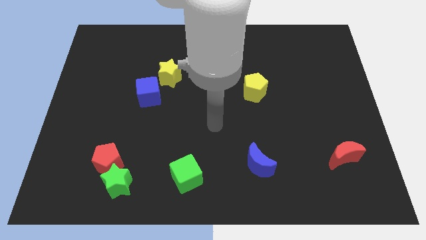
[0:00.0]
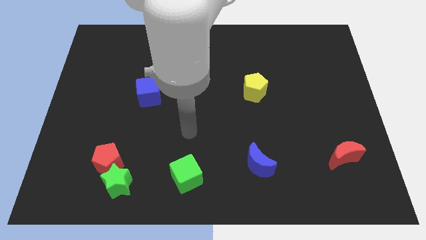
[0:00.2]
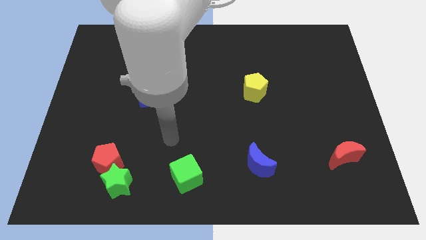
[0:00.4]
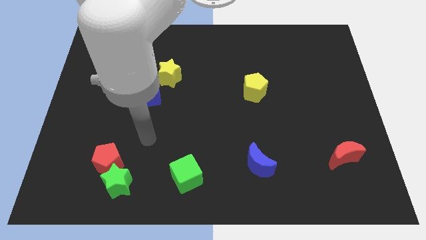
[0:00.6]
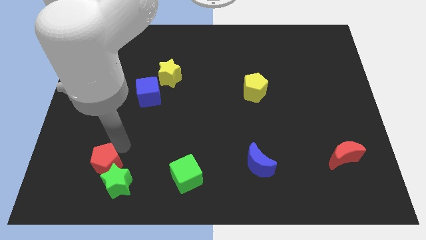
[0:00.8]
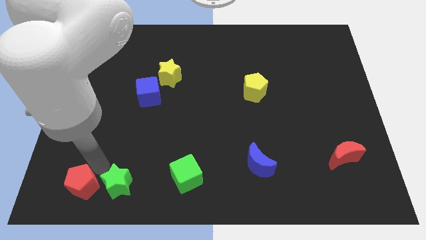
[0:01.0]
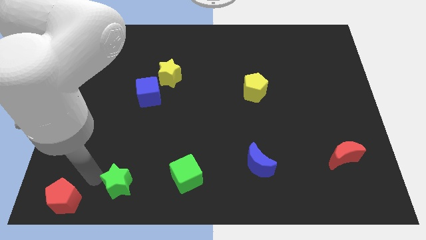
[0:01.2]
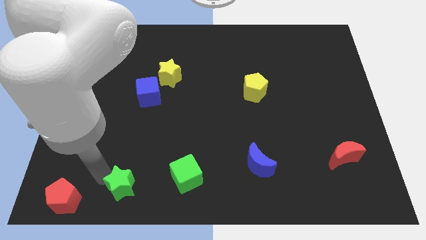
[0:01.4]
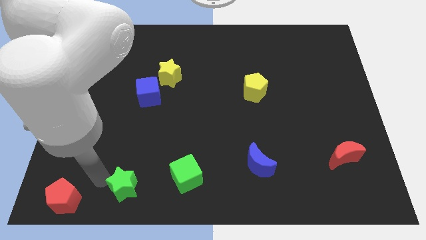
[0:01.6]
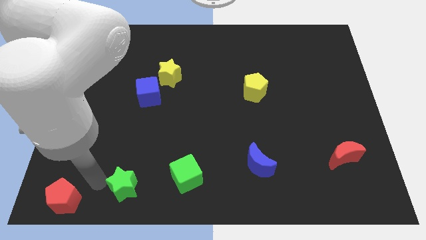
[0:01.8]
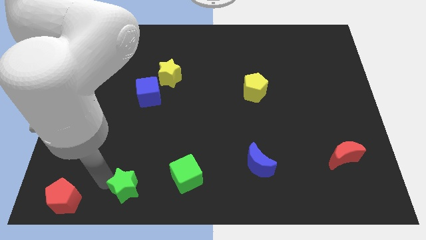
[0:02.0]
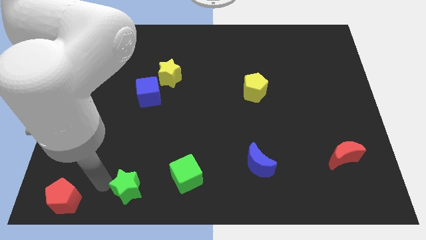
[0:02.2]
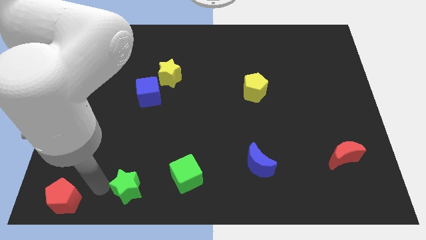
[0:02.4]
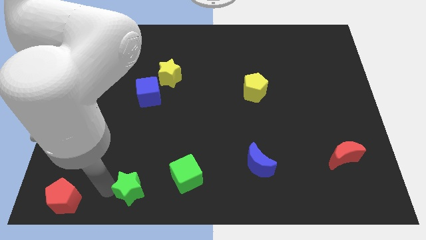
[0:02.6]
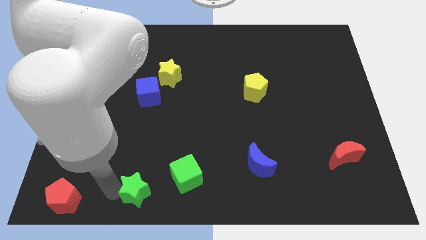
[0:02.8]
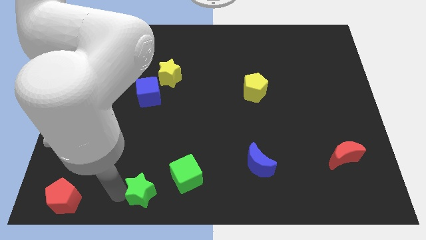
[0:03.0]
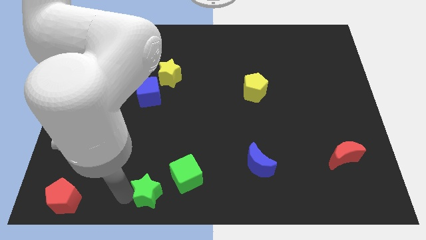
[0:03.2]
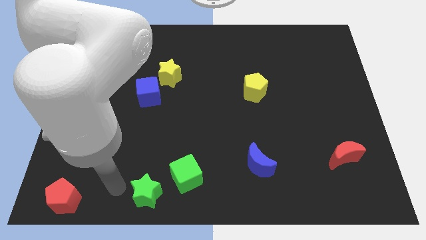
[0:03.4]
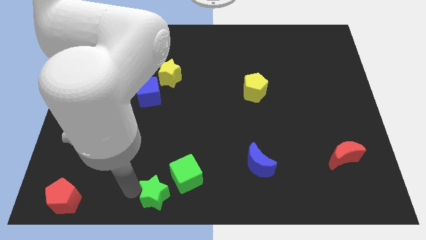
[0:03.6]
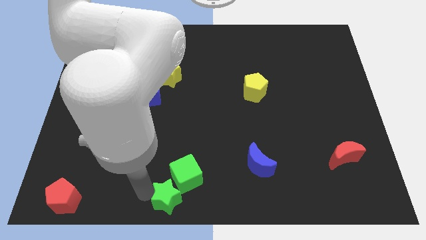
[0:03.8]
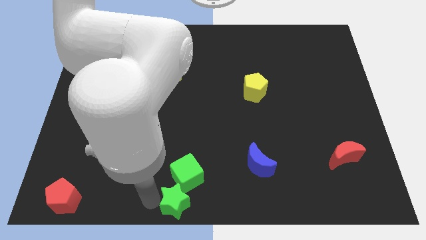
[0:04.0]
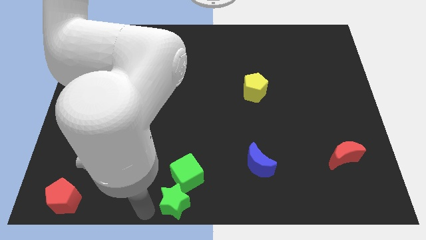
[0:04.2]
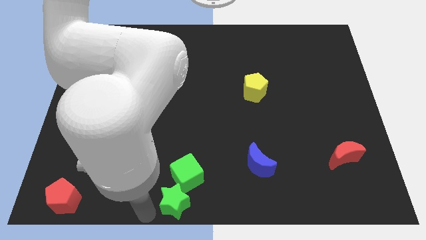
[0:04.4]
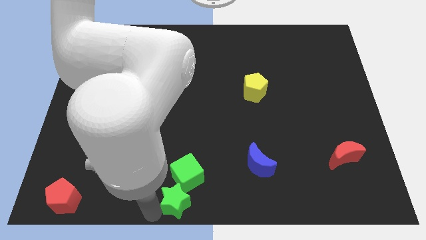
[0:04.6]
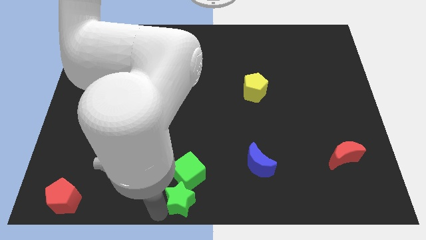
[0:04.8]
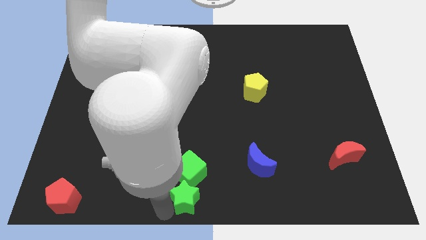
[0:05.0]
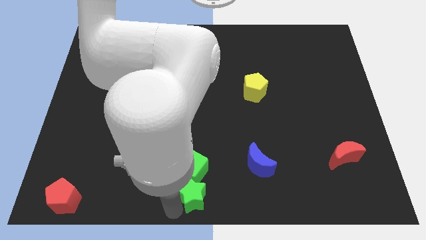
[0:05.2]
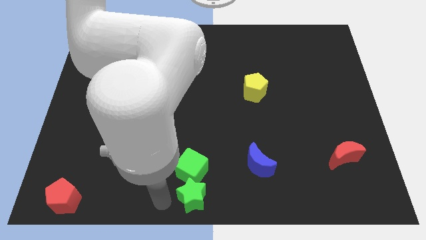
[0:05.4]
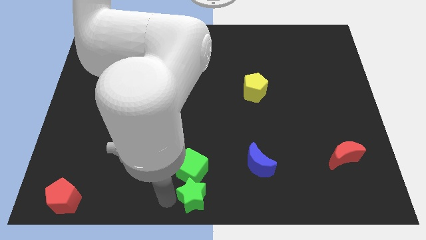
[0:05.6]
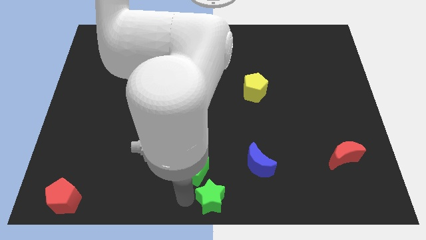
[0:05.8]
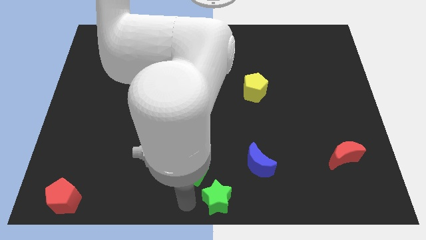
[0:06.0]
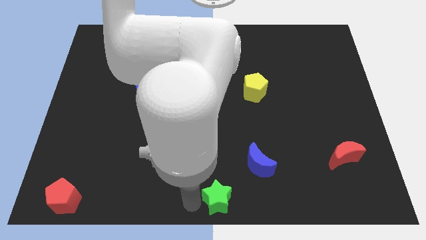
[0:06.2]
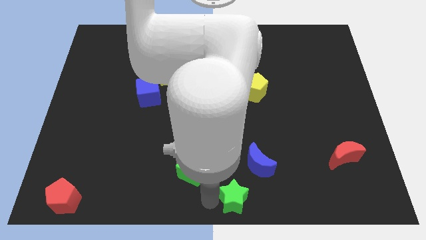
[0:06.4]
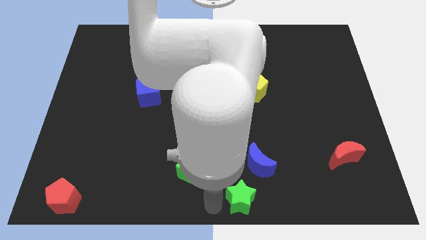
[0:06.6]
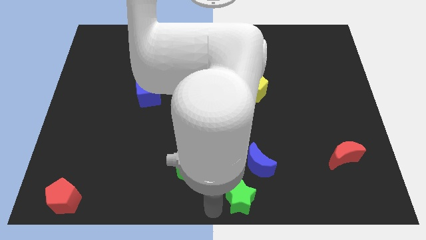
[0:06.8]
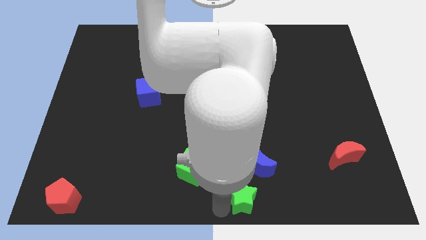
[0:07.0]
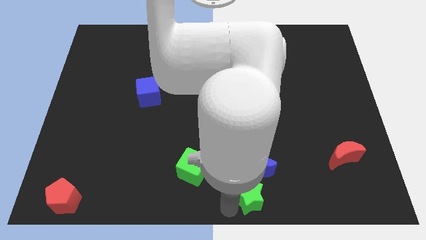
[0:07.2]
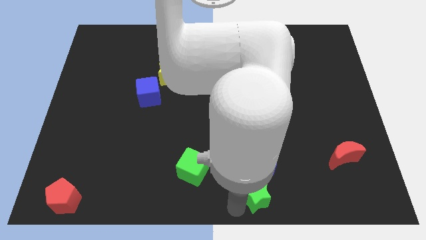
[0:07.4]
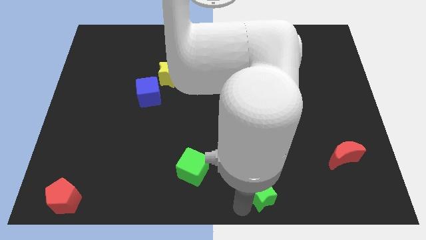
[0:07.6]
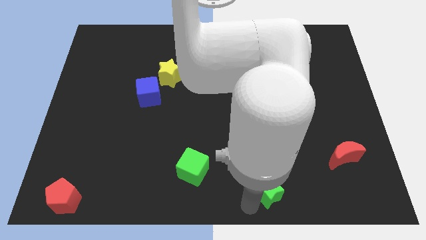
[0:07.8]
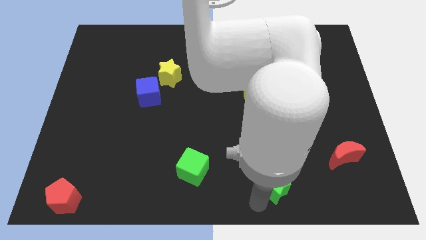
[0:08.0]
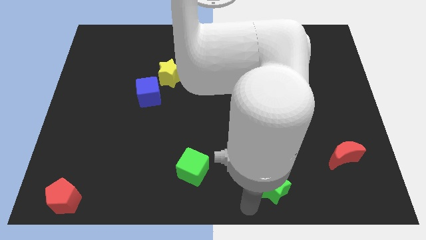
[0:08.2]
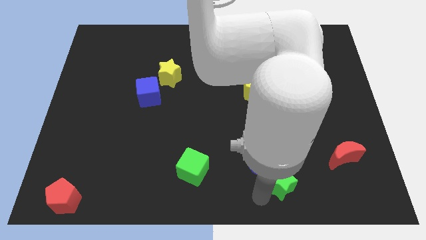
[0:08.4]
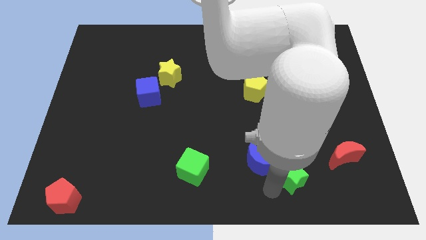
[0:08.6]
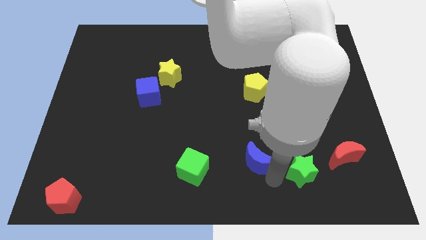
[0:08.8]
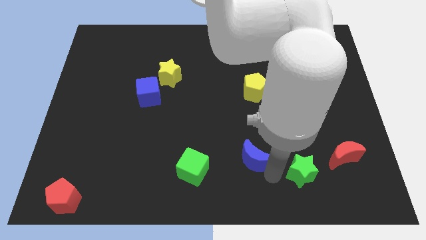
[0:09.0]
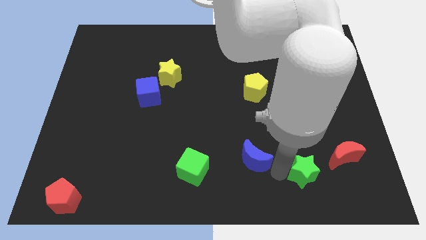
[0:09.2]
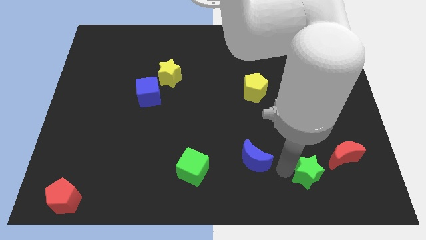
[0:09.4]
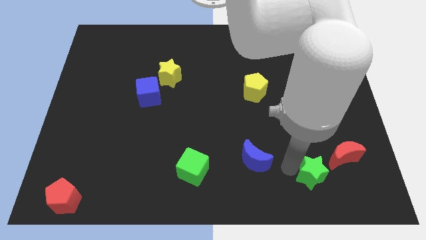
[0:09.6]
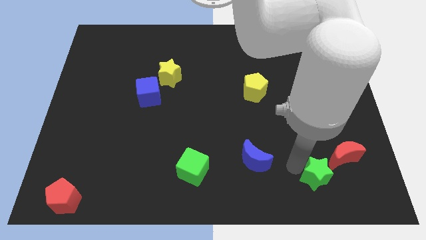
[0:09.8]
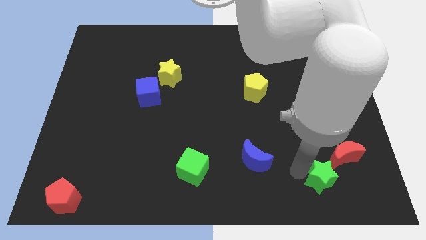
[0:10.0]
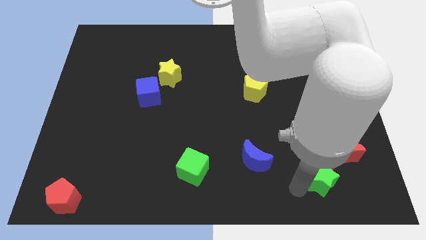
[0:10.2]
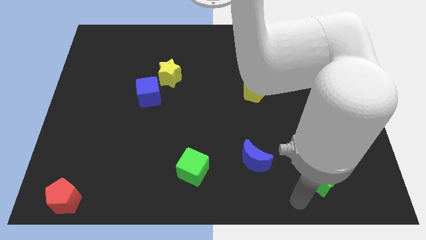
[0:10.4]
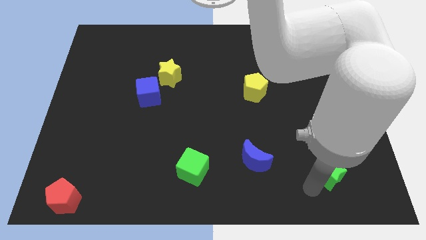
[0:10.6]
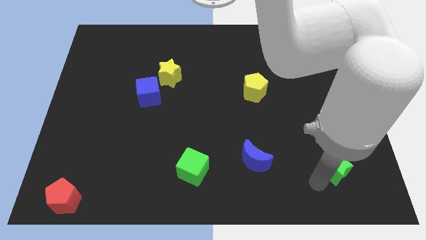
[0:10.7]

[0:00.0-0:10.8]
put the green star close to the red moon
